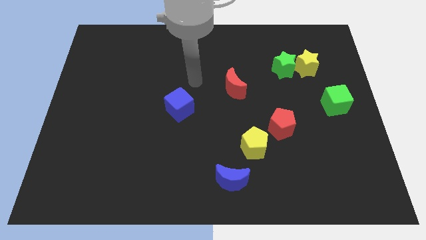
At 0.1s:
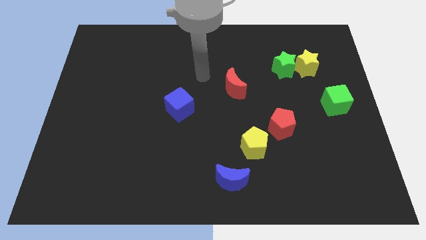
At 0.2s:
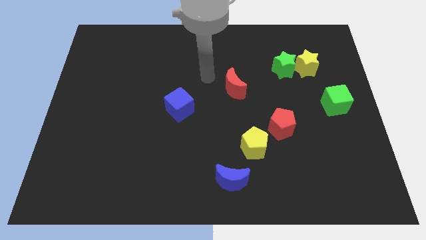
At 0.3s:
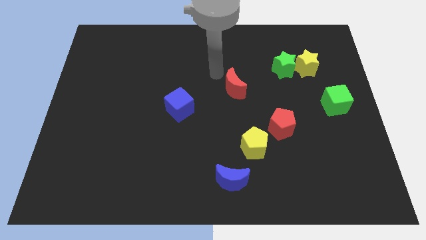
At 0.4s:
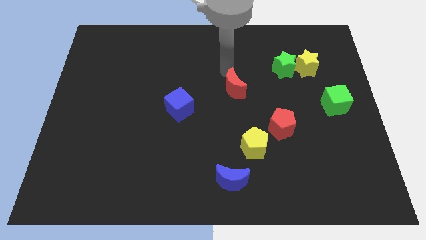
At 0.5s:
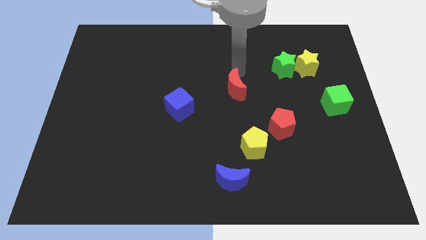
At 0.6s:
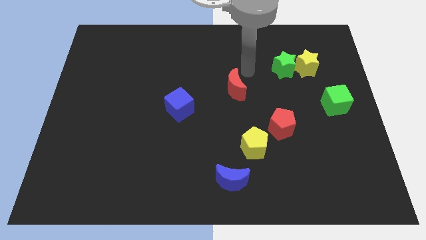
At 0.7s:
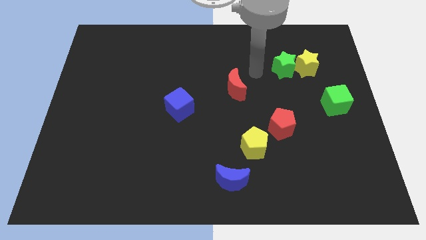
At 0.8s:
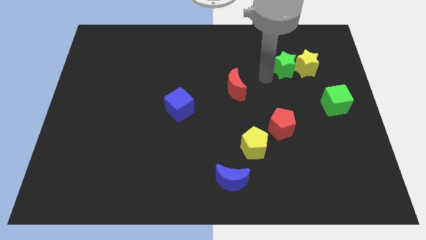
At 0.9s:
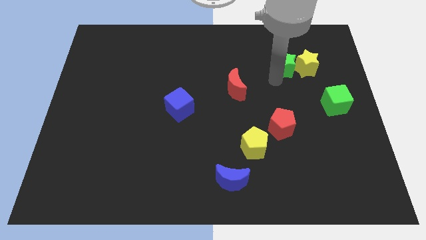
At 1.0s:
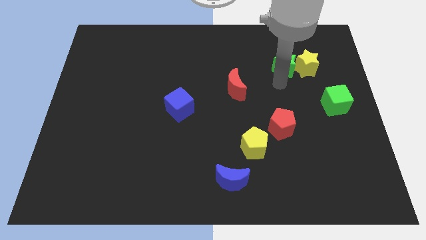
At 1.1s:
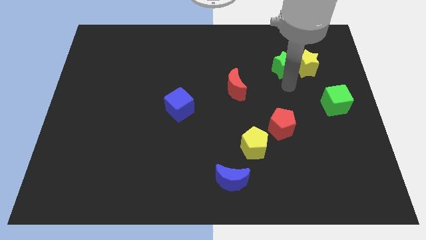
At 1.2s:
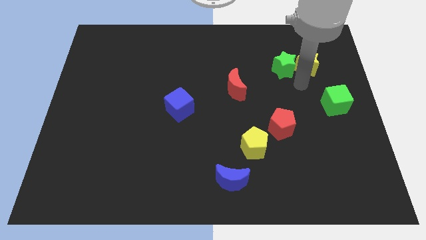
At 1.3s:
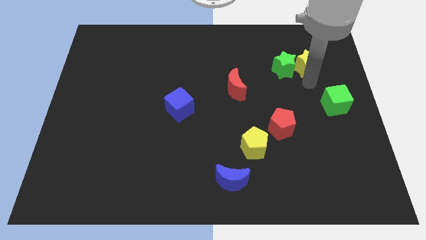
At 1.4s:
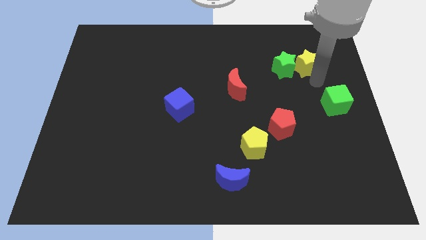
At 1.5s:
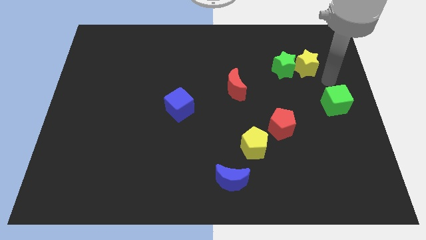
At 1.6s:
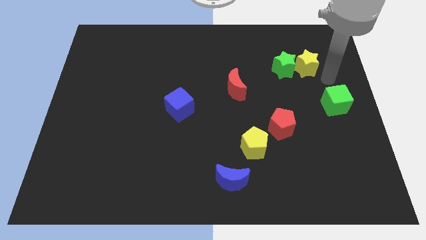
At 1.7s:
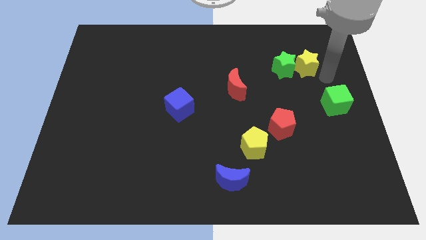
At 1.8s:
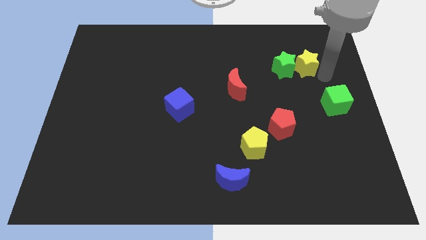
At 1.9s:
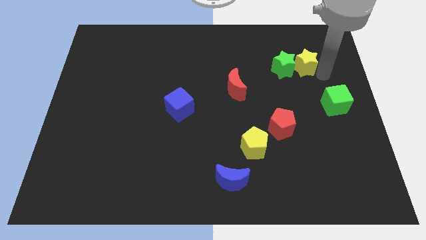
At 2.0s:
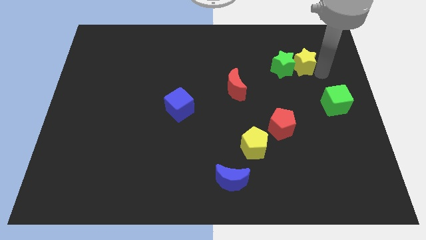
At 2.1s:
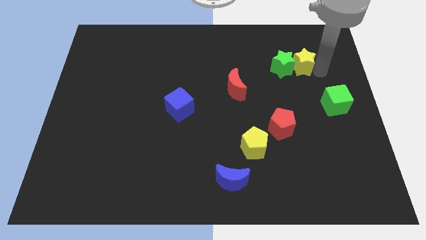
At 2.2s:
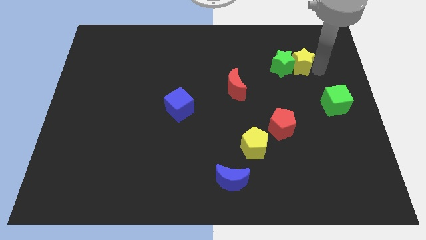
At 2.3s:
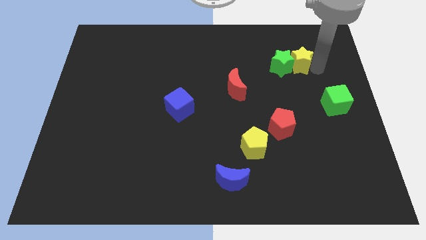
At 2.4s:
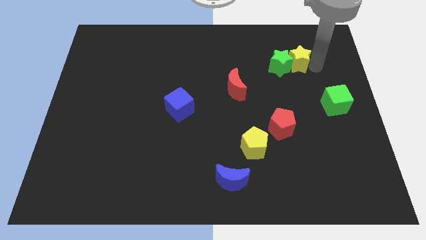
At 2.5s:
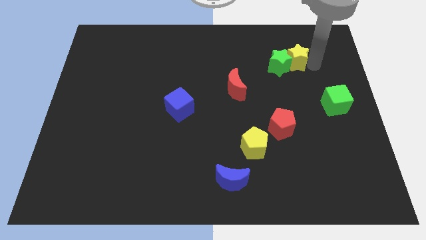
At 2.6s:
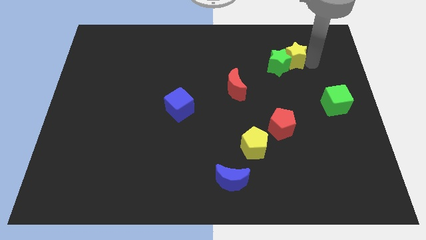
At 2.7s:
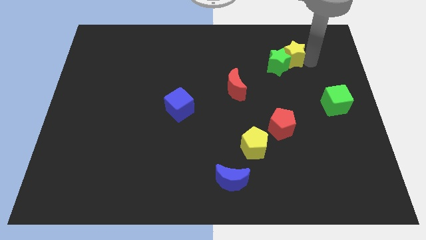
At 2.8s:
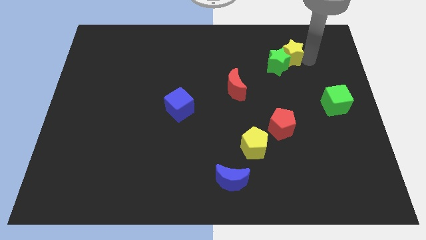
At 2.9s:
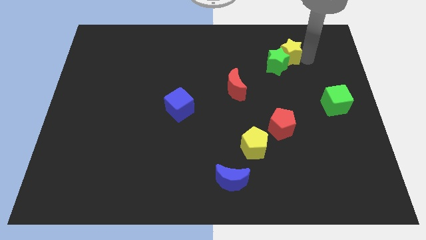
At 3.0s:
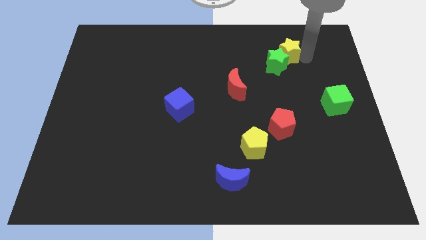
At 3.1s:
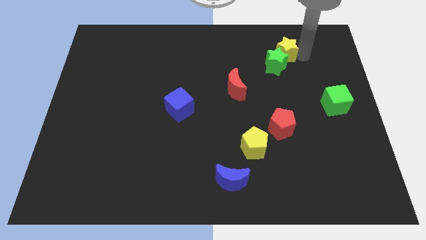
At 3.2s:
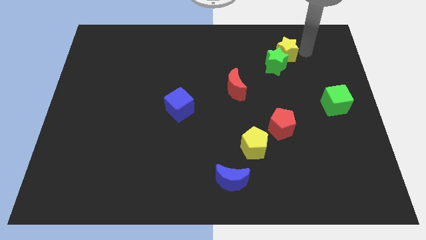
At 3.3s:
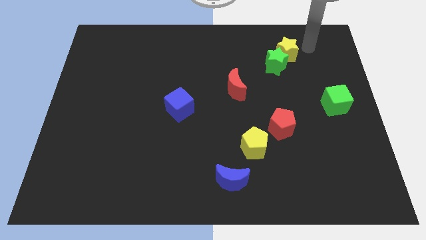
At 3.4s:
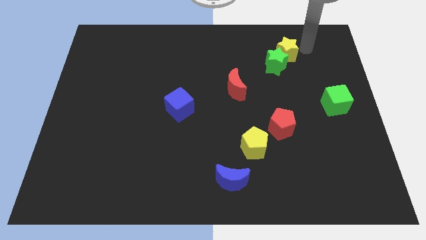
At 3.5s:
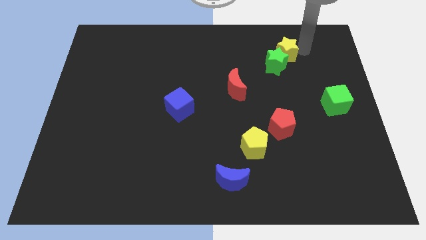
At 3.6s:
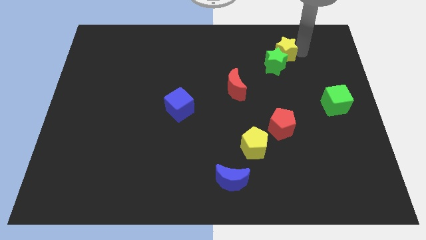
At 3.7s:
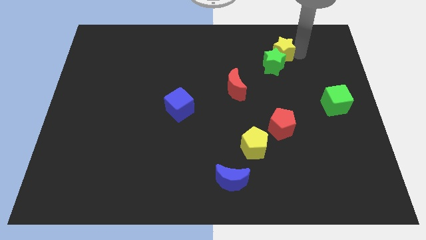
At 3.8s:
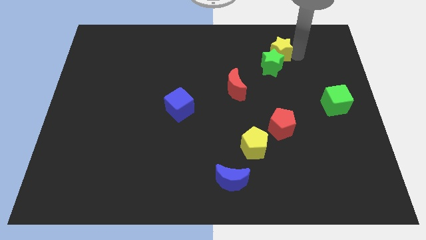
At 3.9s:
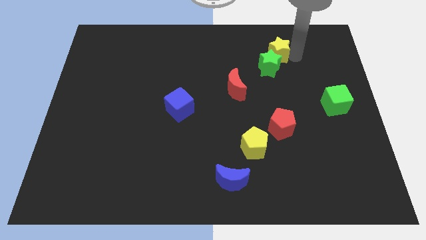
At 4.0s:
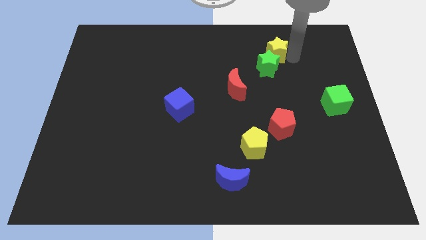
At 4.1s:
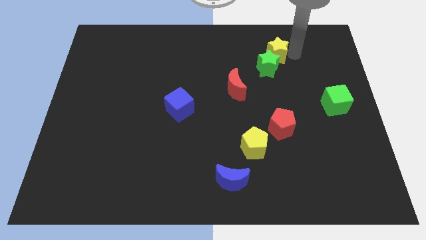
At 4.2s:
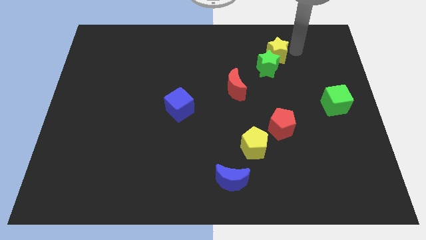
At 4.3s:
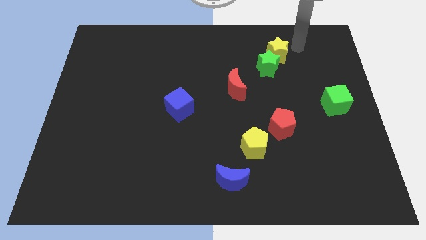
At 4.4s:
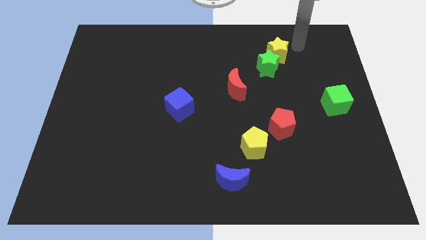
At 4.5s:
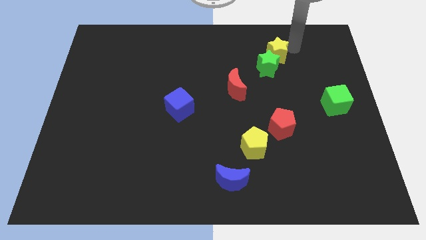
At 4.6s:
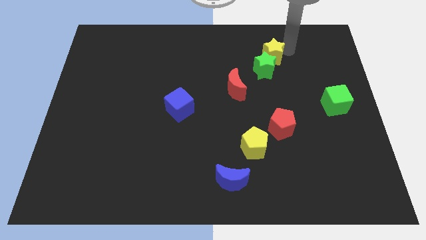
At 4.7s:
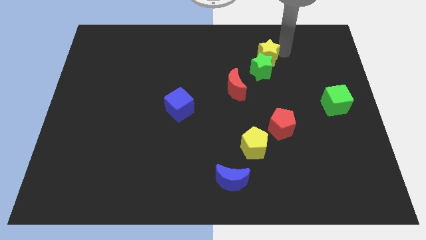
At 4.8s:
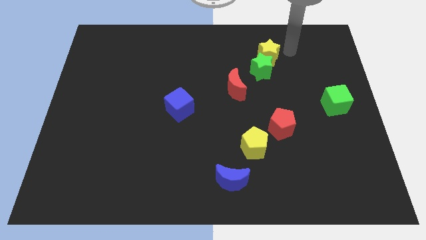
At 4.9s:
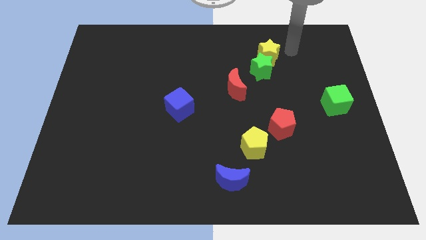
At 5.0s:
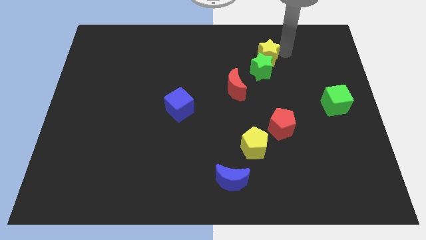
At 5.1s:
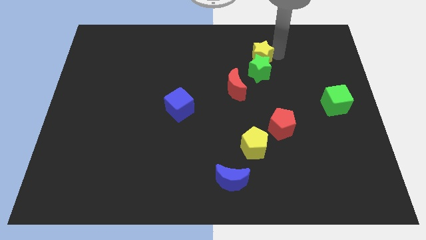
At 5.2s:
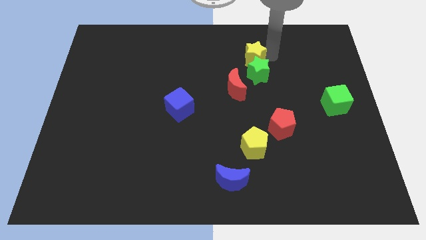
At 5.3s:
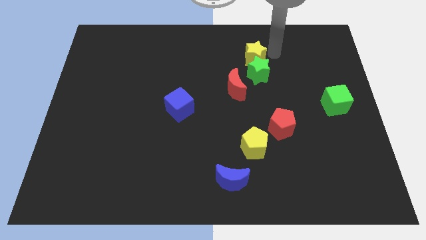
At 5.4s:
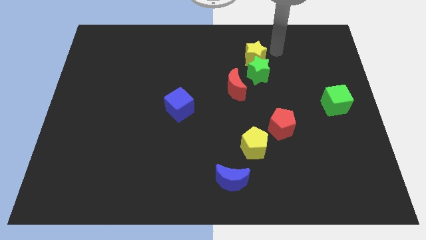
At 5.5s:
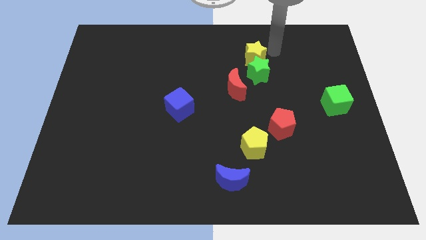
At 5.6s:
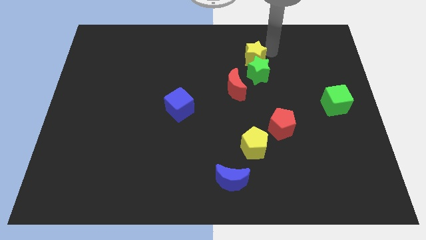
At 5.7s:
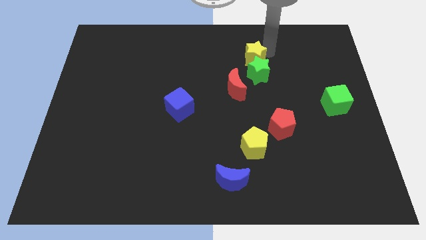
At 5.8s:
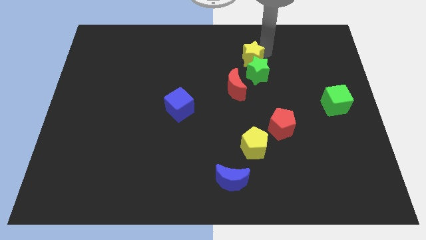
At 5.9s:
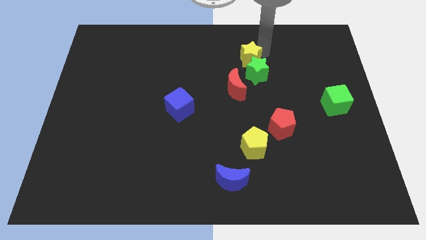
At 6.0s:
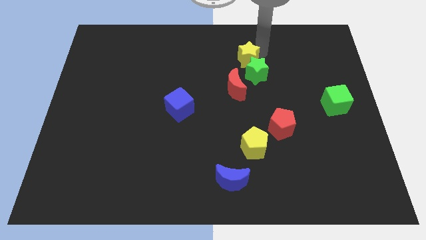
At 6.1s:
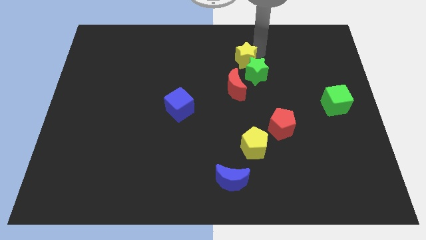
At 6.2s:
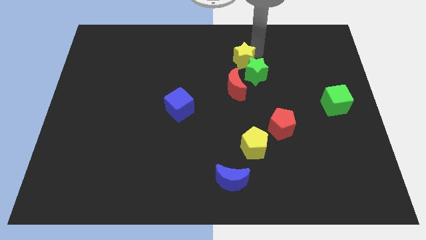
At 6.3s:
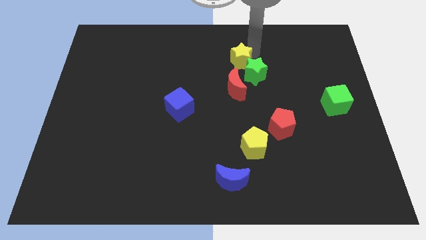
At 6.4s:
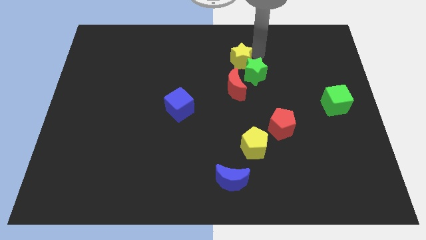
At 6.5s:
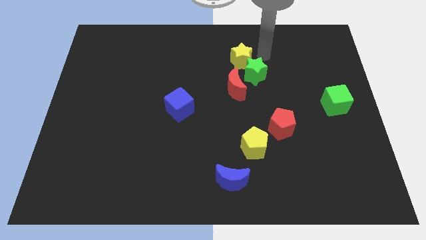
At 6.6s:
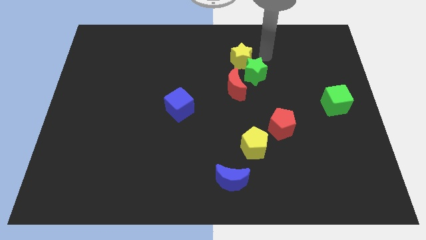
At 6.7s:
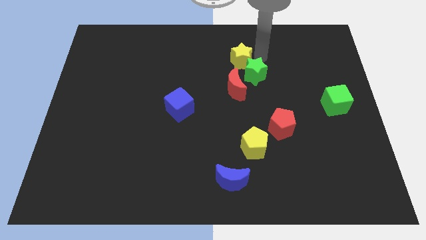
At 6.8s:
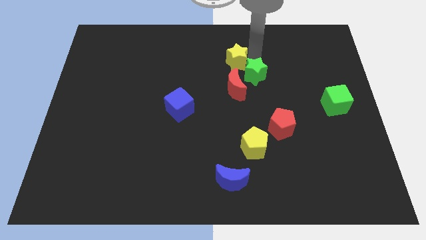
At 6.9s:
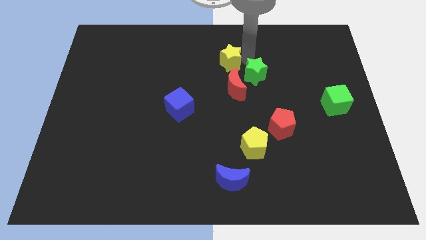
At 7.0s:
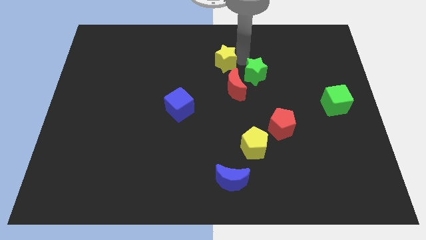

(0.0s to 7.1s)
slide the yellow star to the left

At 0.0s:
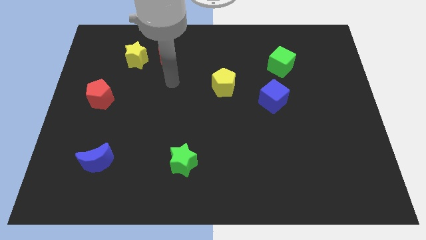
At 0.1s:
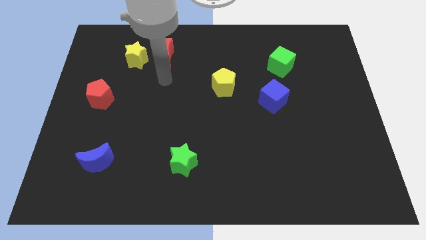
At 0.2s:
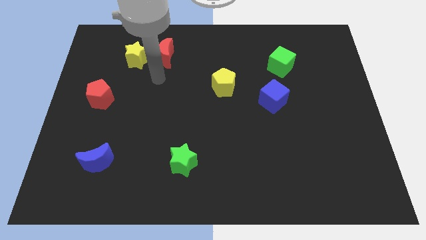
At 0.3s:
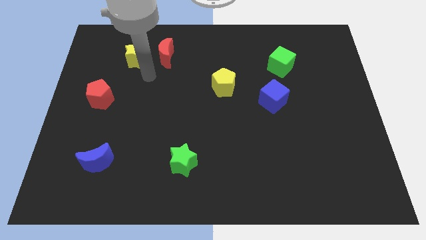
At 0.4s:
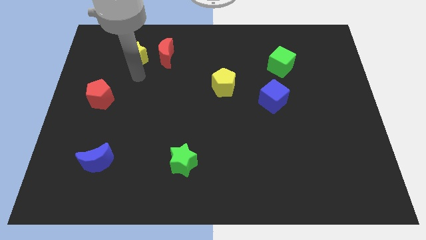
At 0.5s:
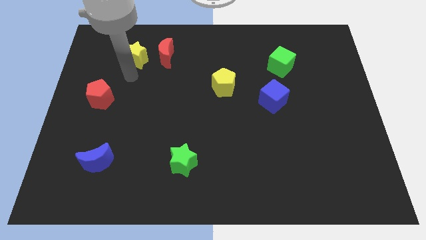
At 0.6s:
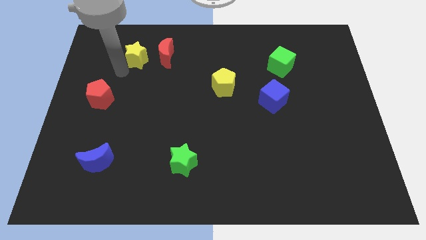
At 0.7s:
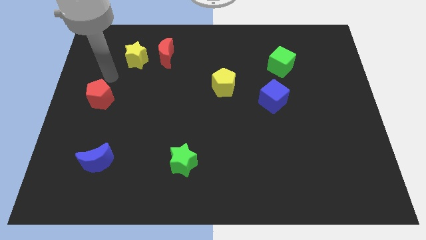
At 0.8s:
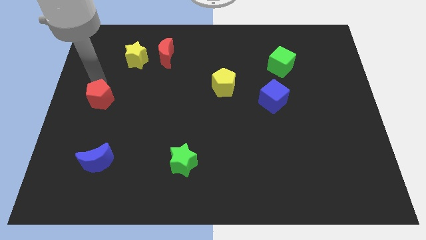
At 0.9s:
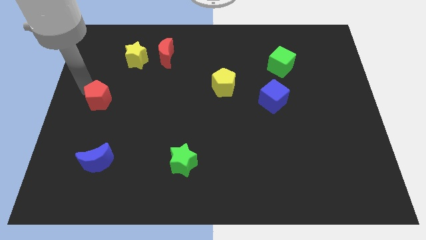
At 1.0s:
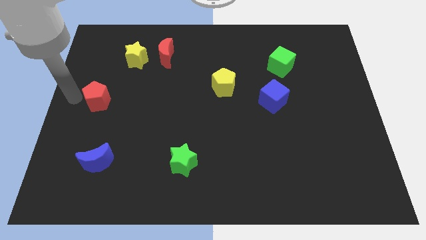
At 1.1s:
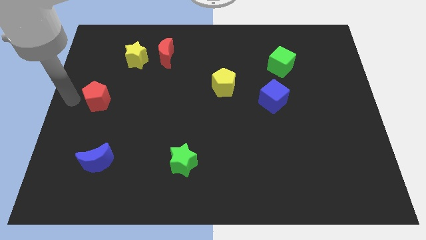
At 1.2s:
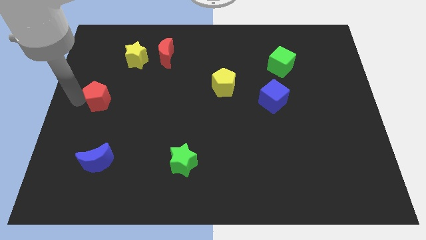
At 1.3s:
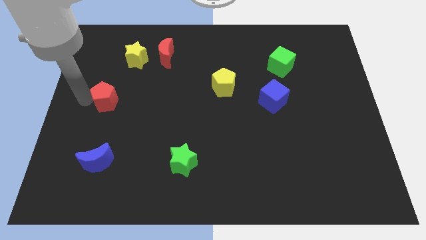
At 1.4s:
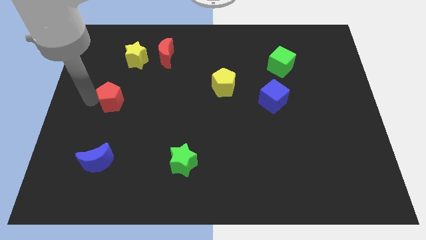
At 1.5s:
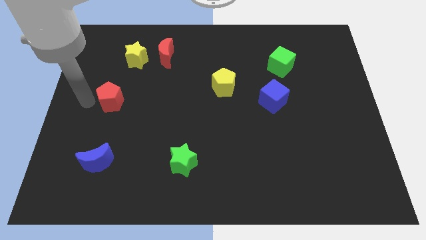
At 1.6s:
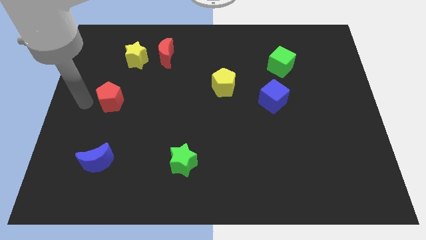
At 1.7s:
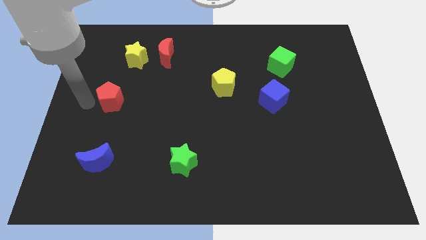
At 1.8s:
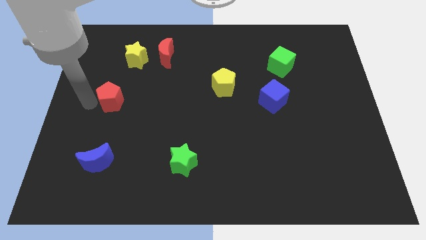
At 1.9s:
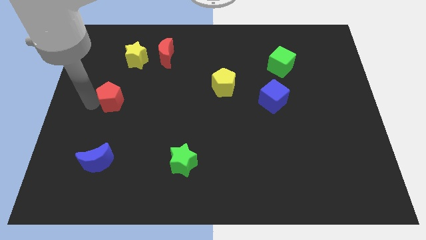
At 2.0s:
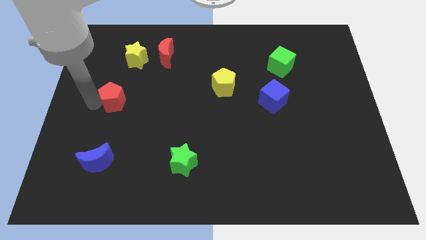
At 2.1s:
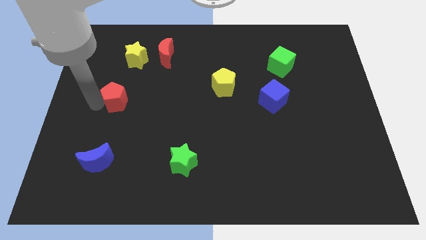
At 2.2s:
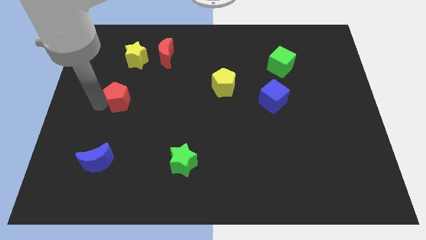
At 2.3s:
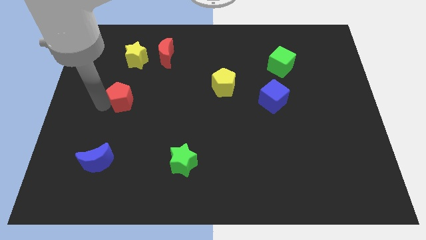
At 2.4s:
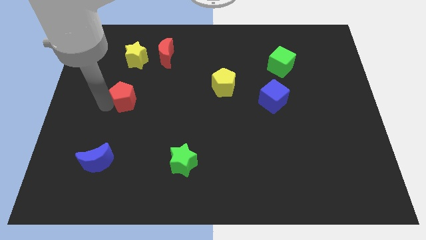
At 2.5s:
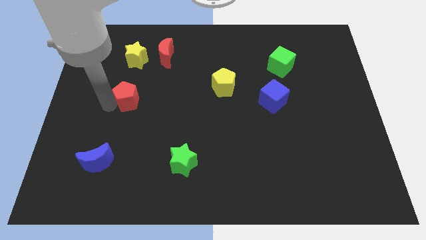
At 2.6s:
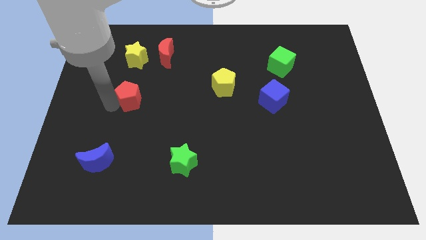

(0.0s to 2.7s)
move the red pentagon to the right a bit
